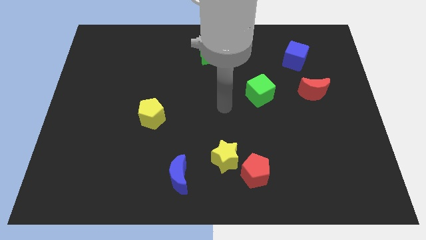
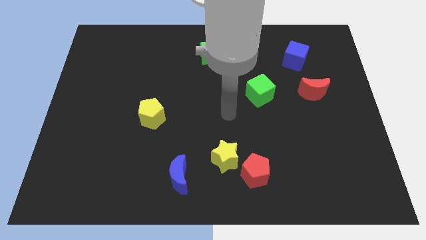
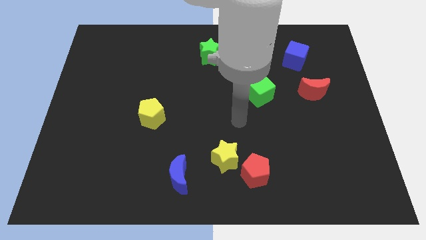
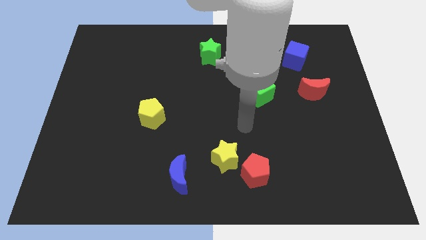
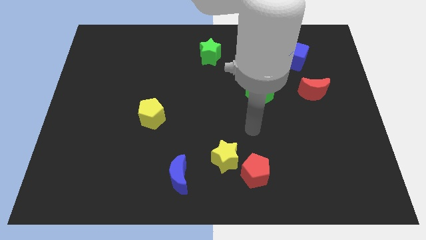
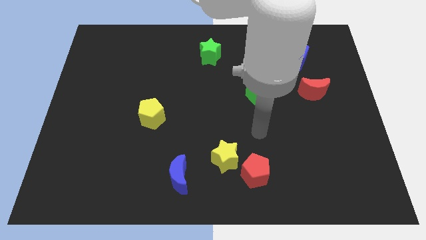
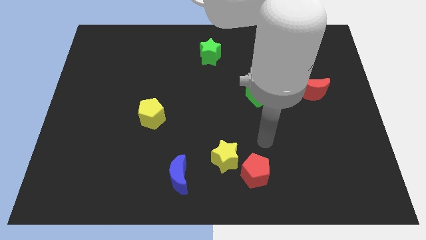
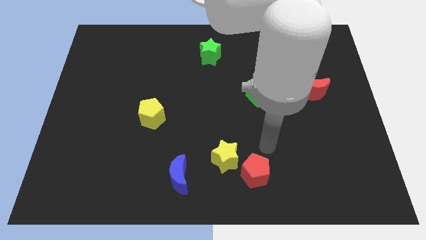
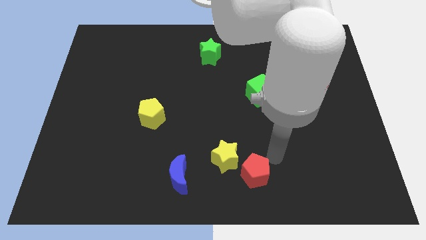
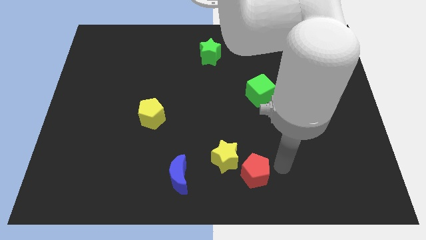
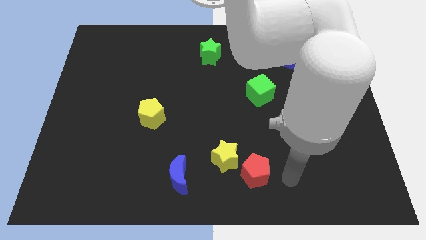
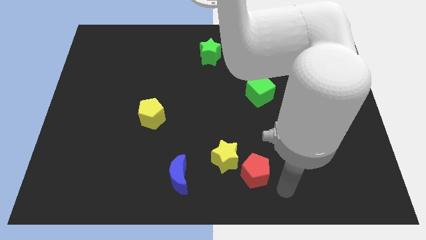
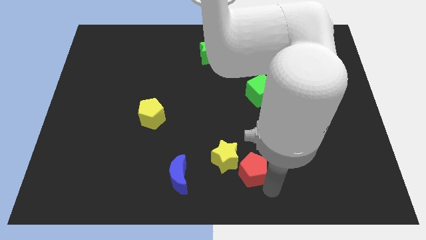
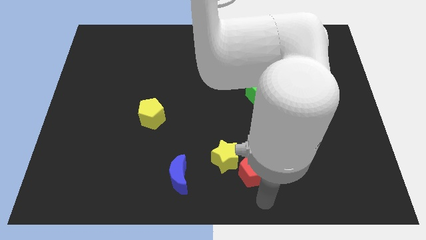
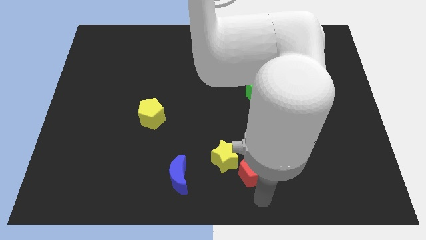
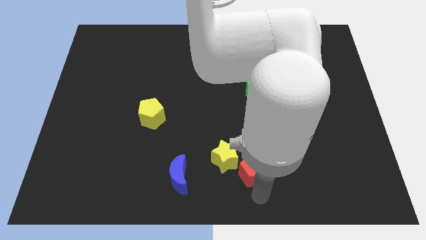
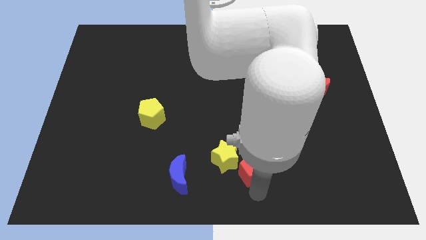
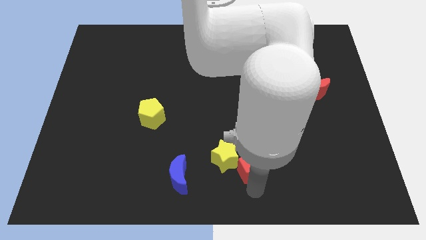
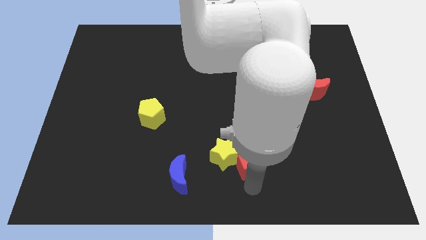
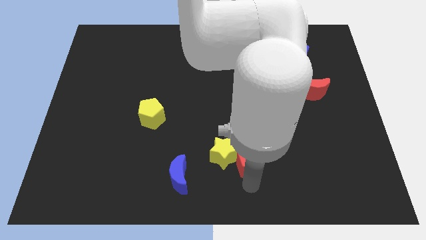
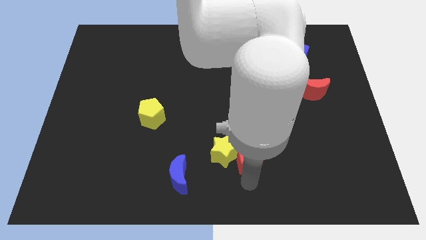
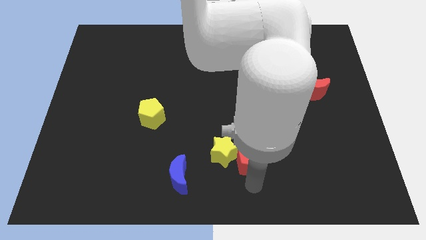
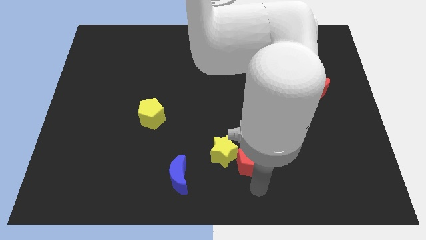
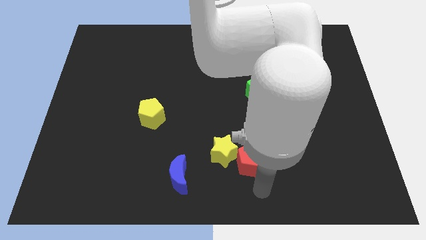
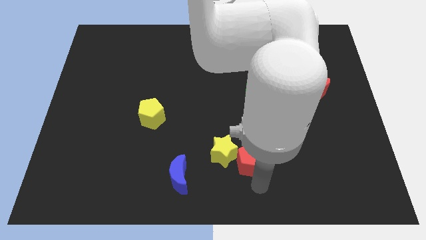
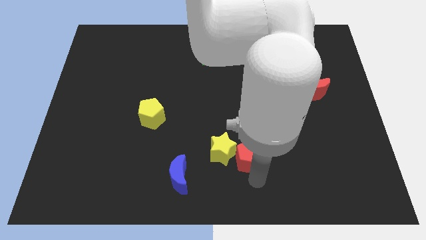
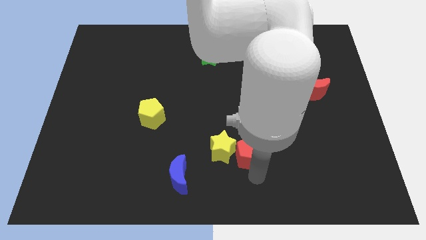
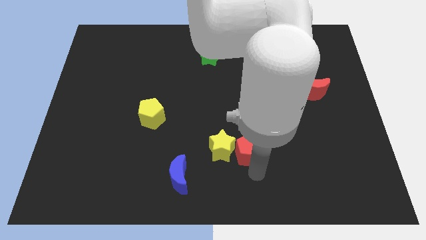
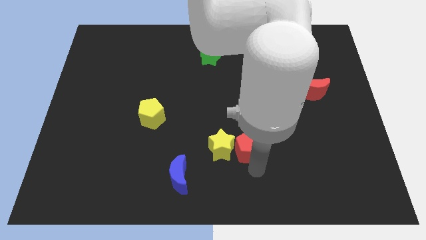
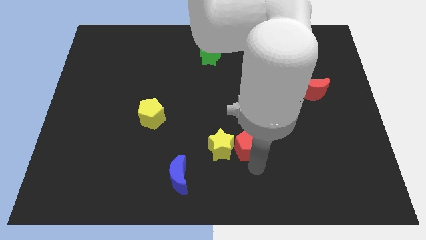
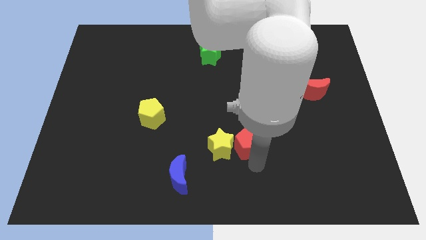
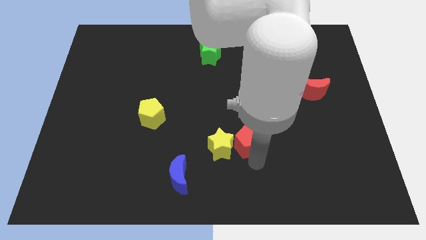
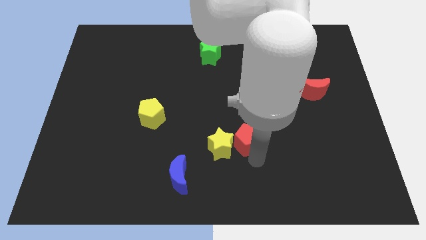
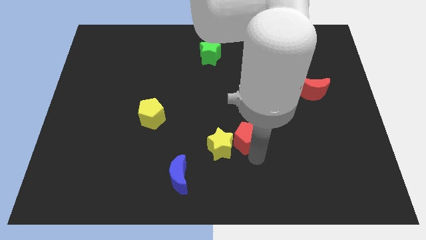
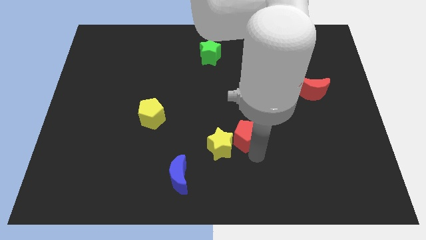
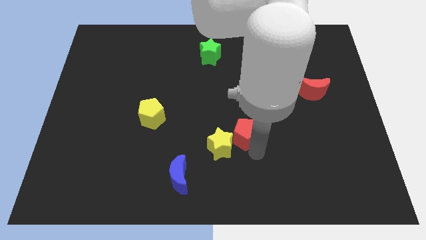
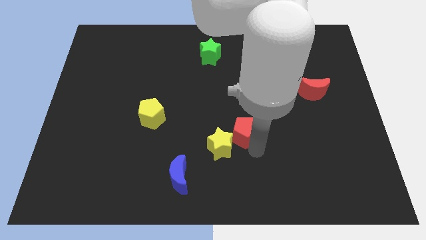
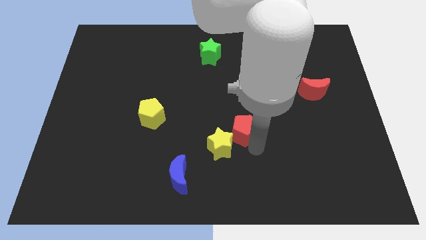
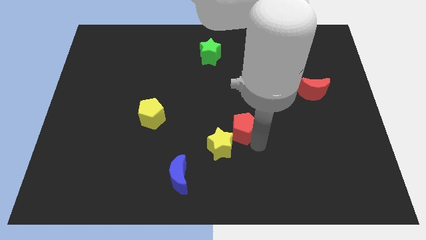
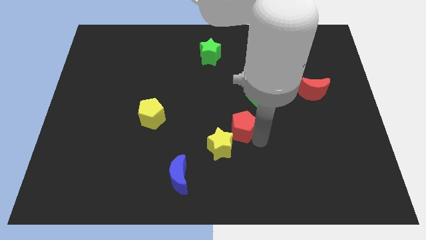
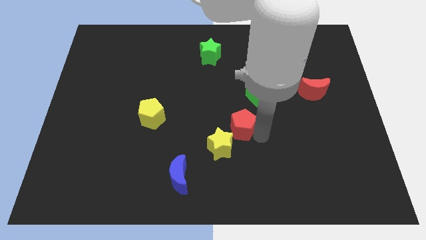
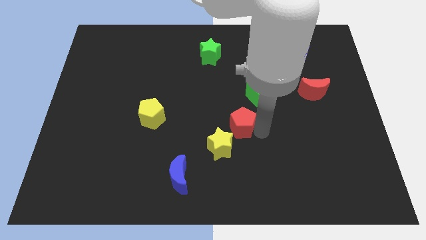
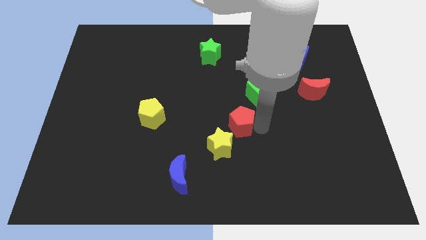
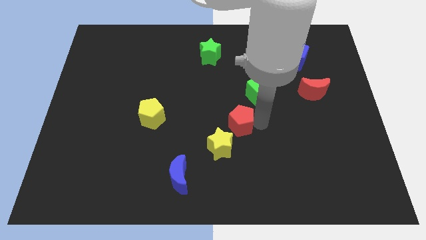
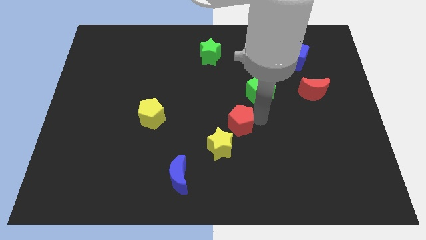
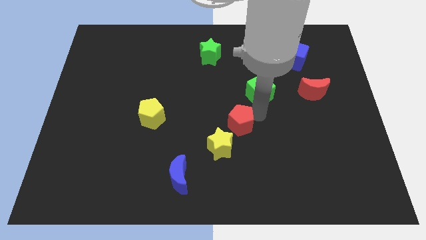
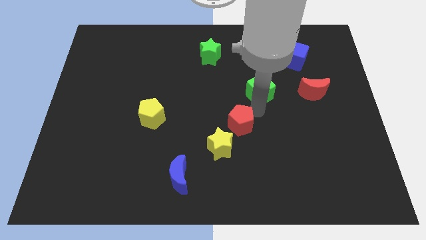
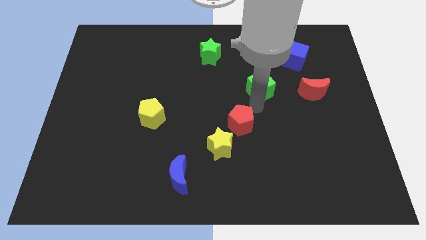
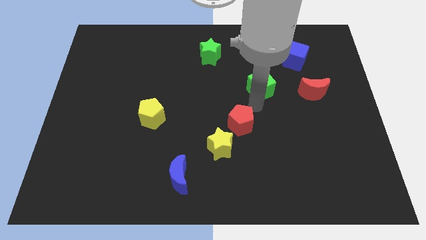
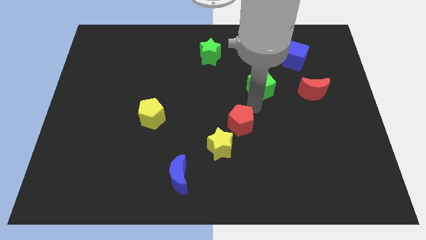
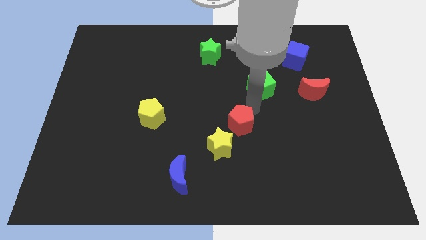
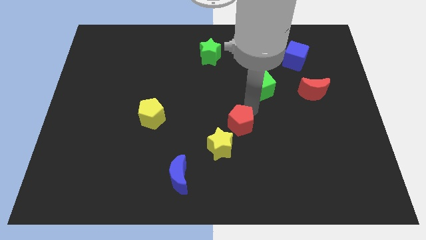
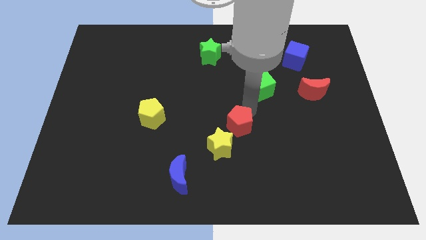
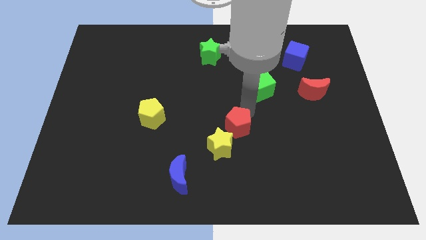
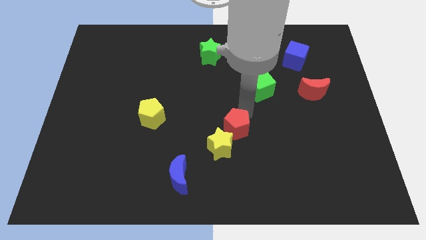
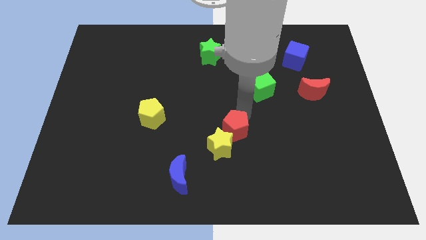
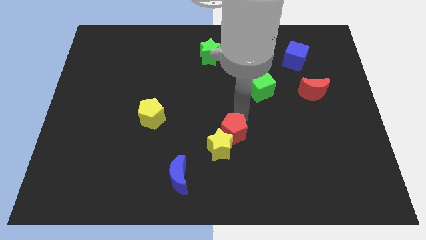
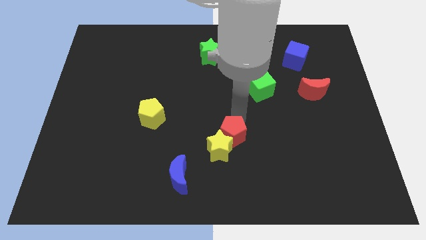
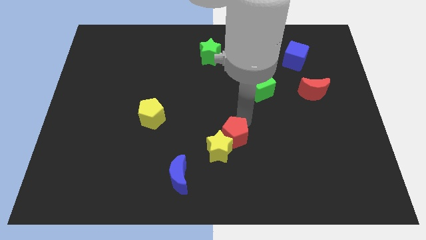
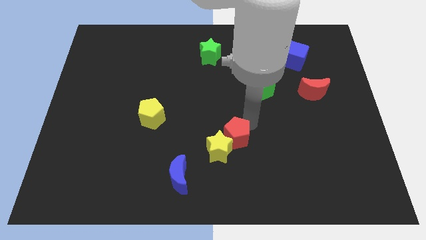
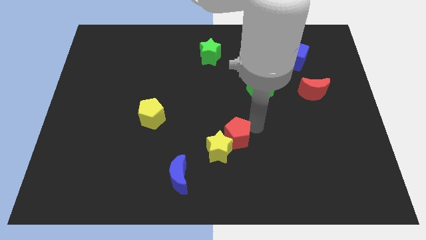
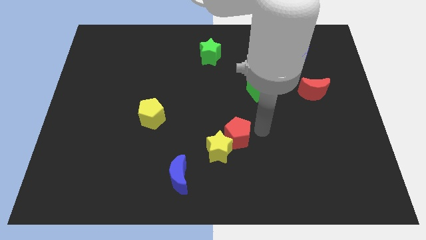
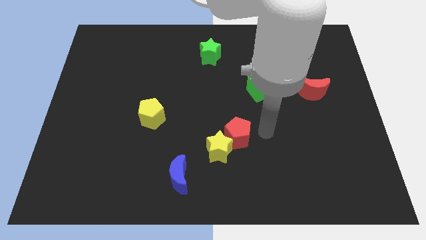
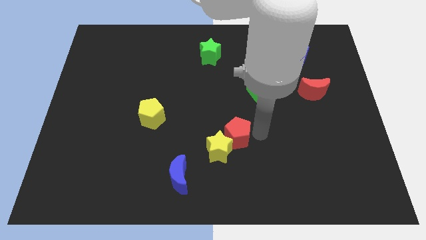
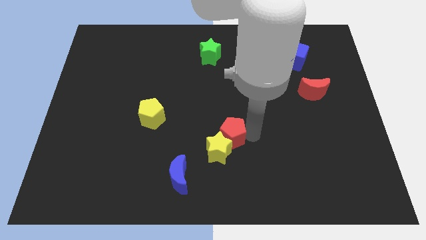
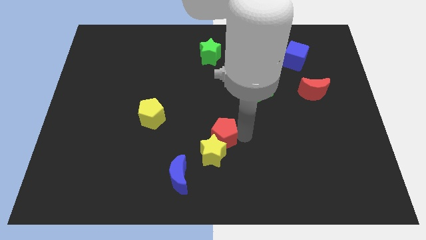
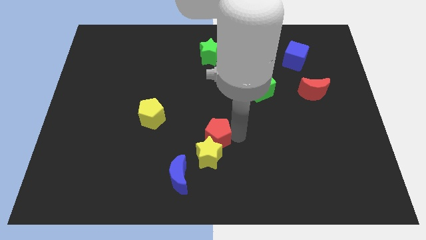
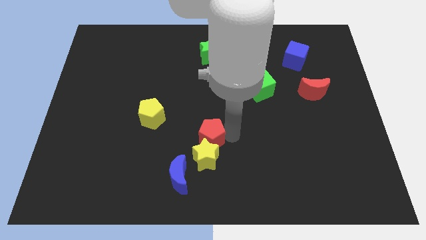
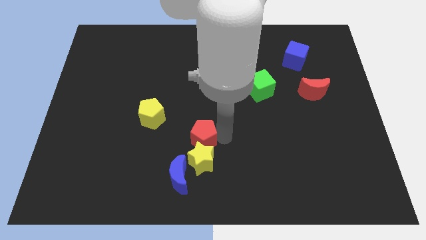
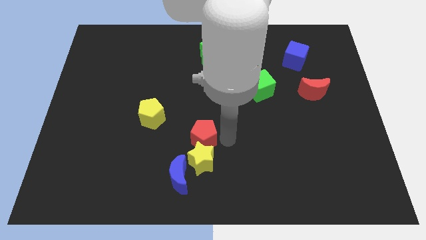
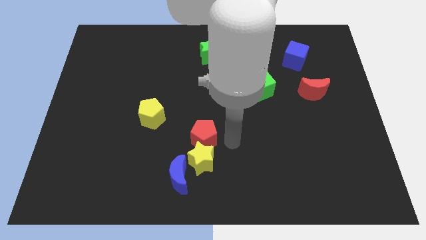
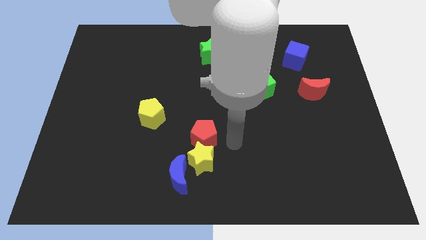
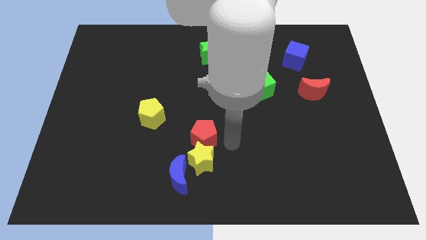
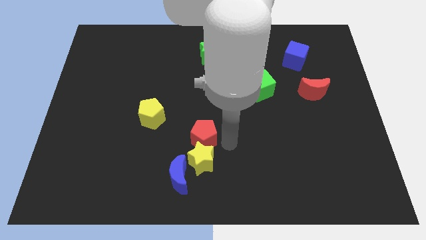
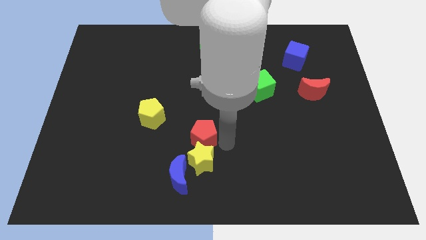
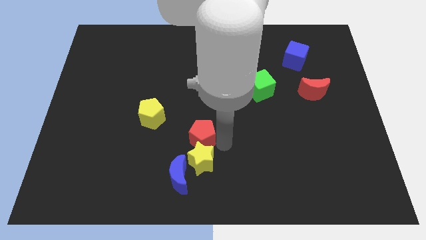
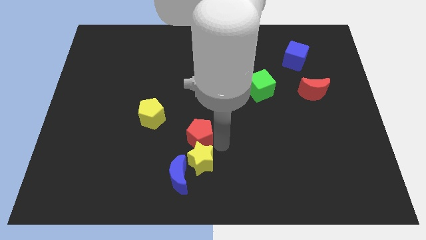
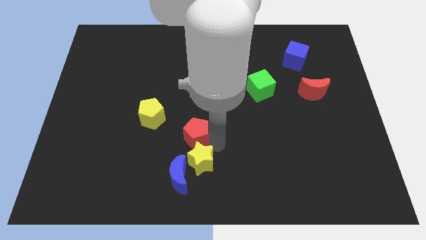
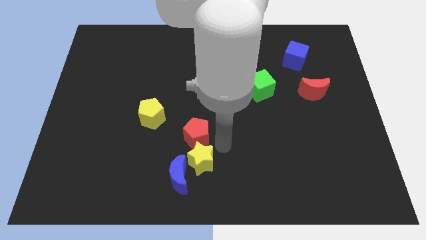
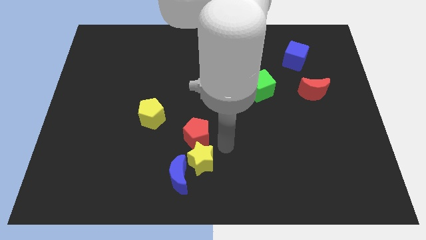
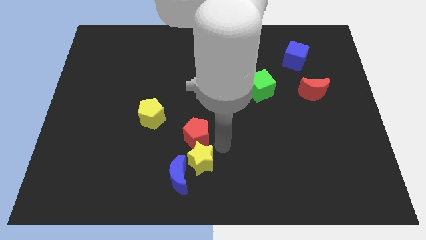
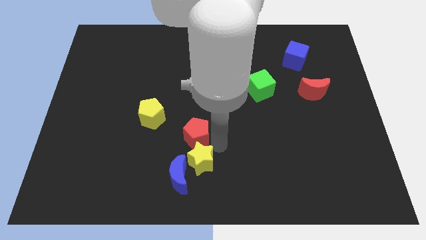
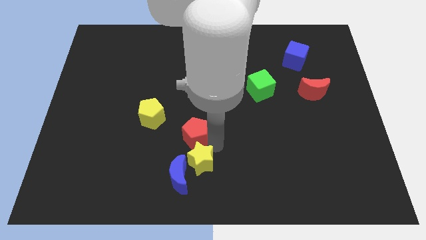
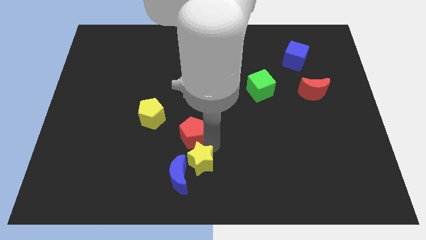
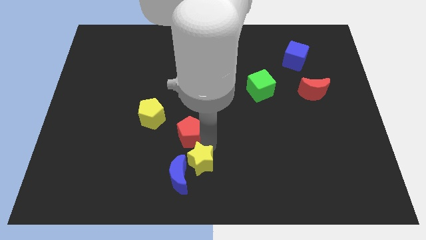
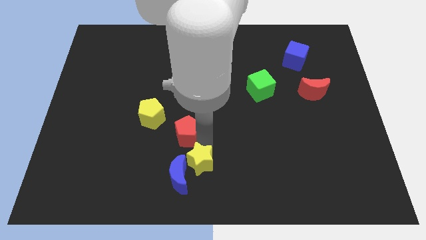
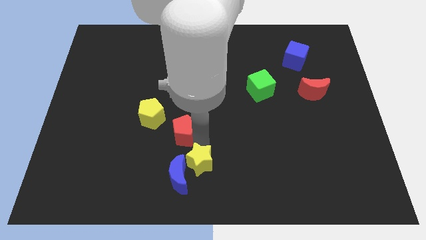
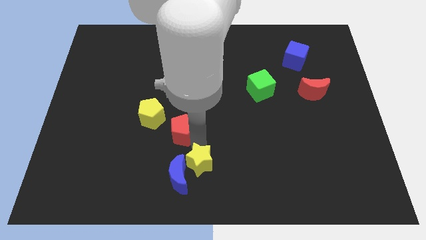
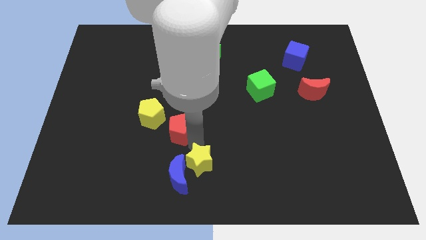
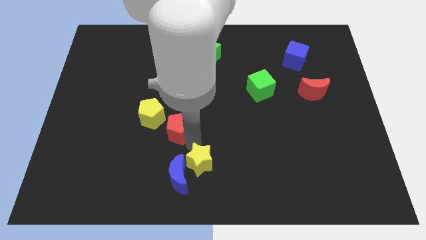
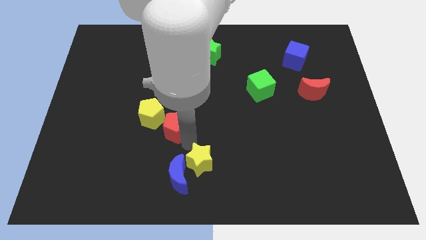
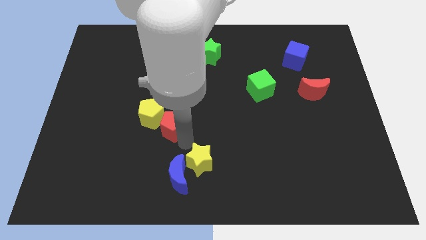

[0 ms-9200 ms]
push the red pentagon next to the yellow pentagon
